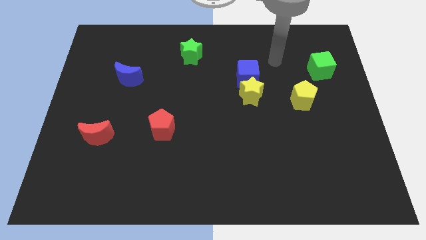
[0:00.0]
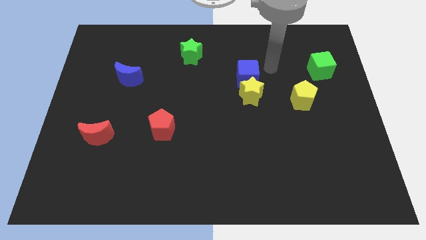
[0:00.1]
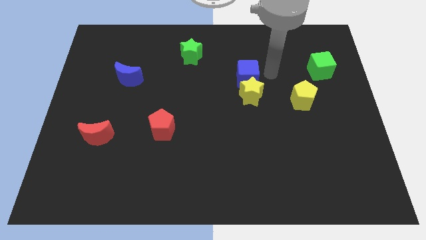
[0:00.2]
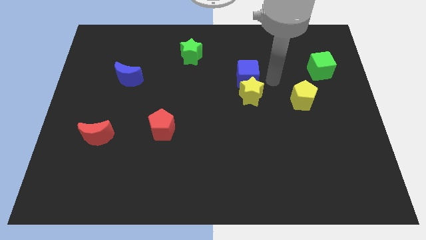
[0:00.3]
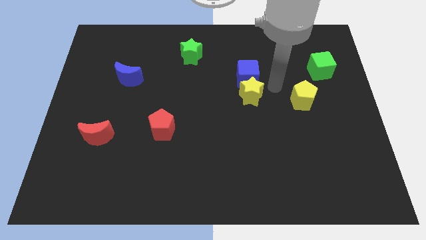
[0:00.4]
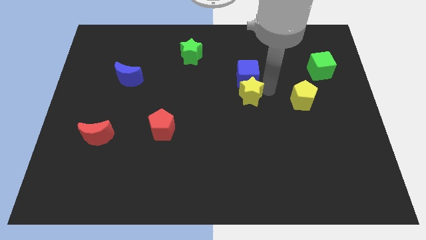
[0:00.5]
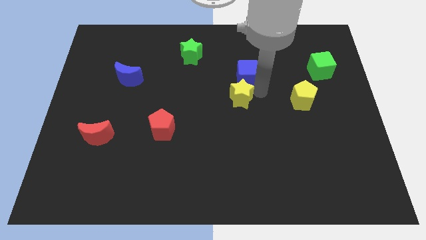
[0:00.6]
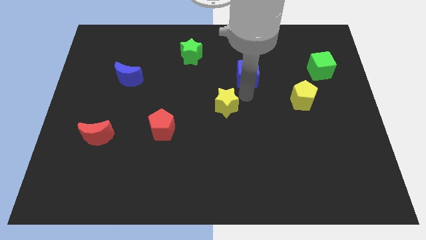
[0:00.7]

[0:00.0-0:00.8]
move the blue cube away from the yellow star

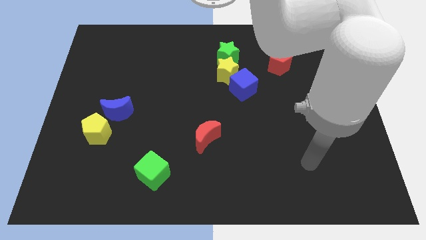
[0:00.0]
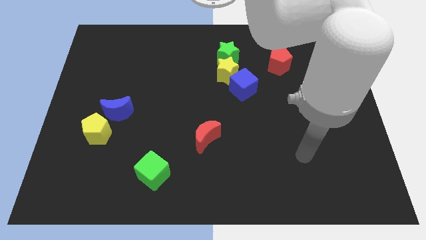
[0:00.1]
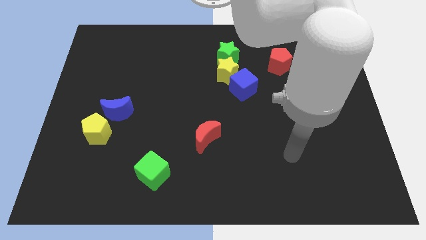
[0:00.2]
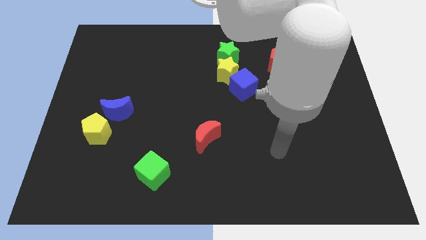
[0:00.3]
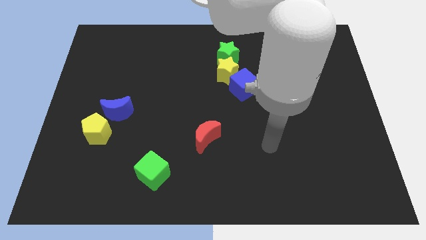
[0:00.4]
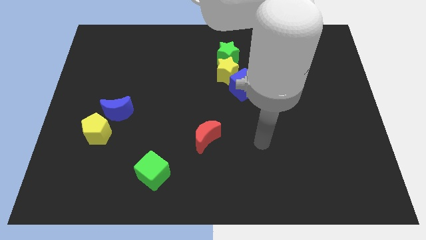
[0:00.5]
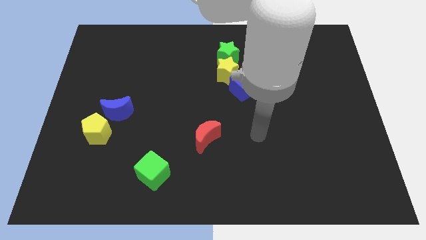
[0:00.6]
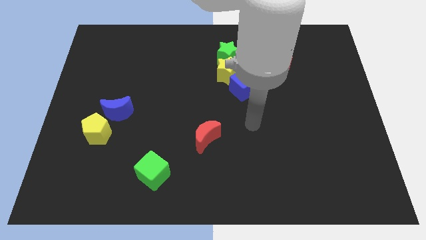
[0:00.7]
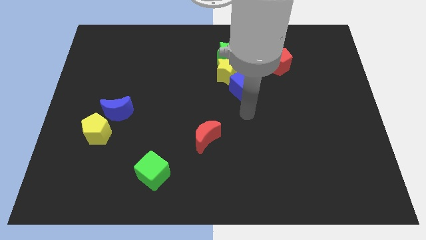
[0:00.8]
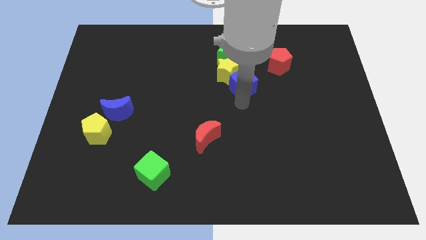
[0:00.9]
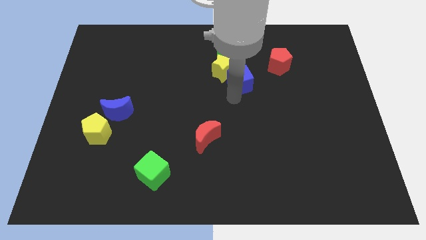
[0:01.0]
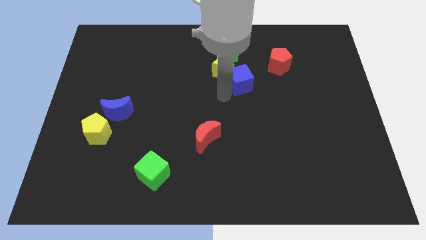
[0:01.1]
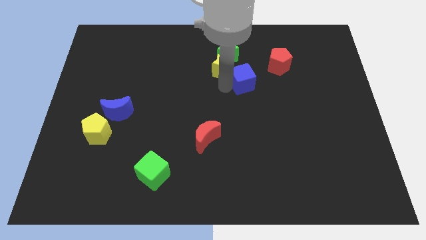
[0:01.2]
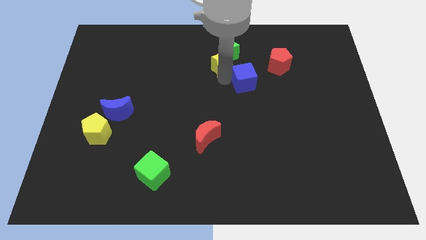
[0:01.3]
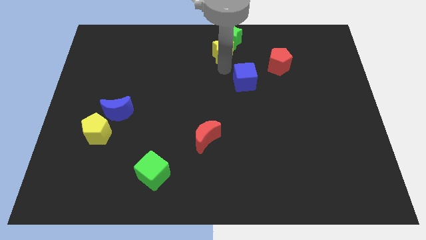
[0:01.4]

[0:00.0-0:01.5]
separate the blue cube from the yellow star

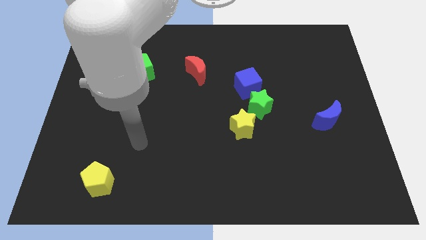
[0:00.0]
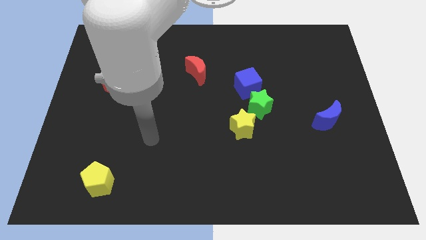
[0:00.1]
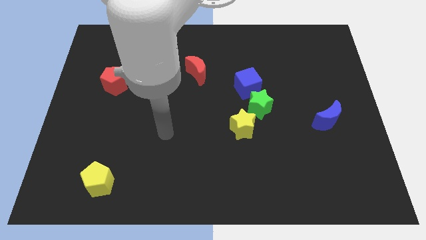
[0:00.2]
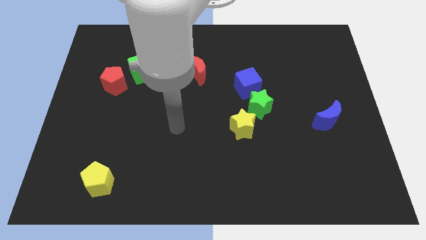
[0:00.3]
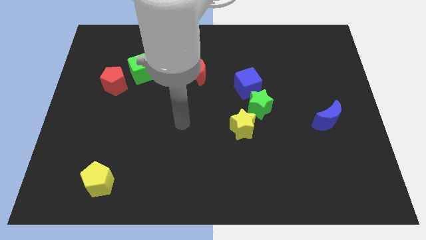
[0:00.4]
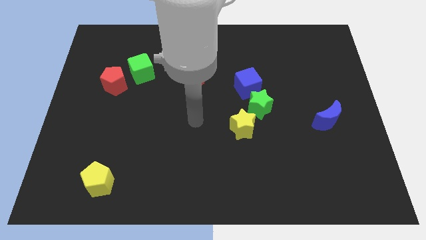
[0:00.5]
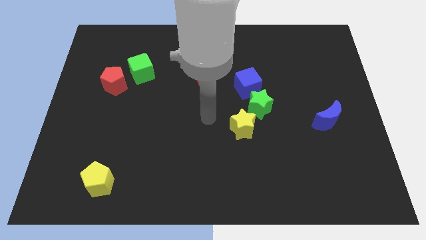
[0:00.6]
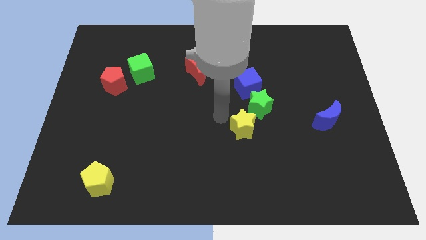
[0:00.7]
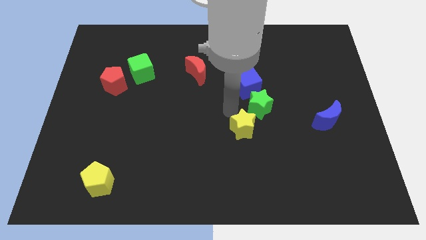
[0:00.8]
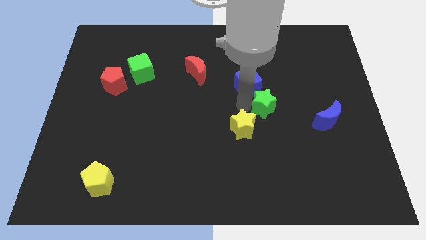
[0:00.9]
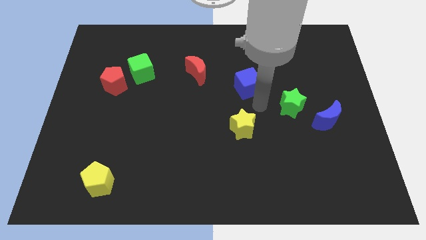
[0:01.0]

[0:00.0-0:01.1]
separate the blue cube from the green star

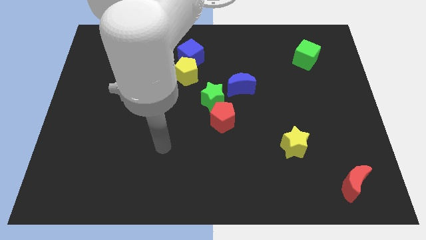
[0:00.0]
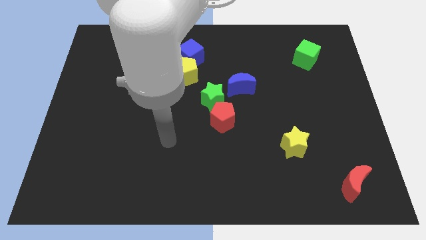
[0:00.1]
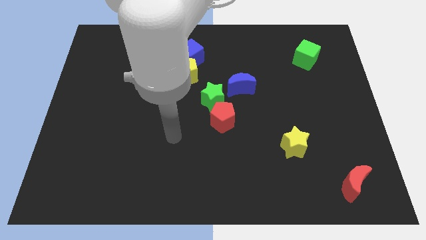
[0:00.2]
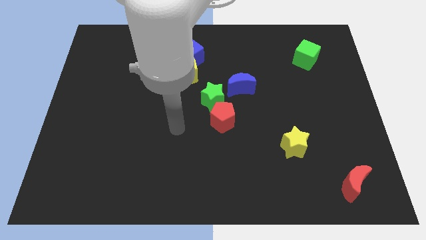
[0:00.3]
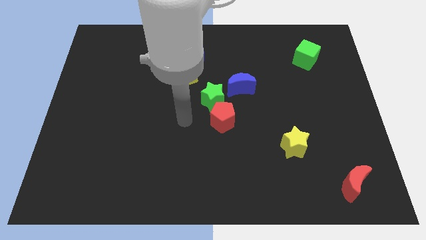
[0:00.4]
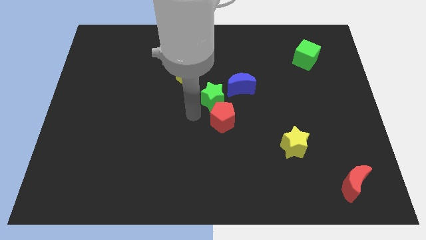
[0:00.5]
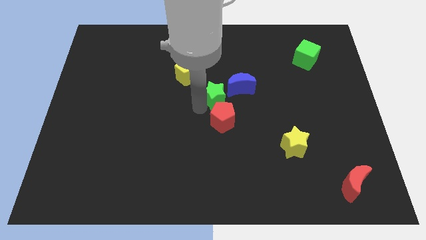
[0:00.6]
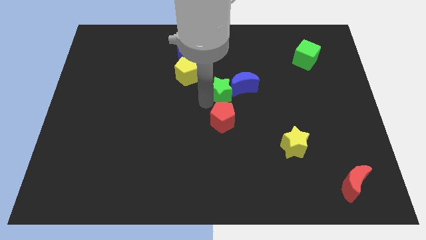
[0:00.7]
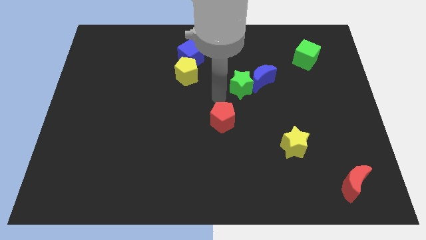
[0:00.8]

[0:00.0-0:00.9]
separate the red pentagon from the green star

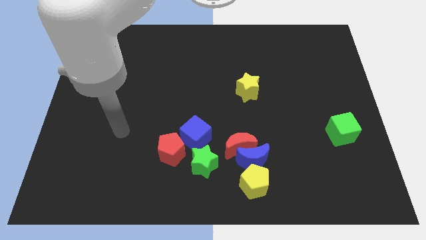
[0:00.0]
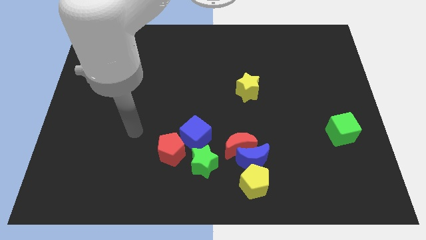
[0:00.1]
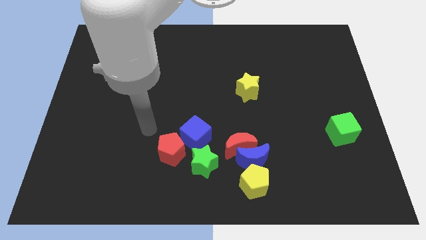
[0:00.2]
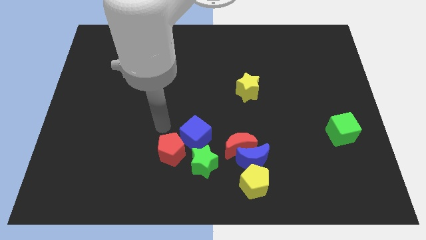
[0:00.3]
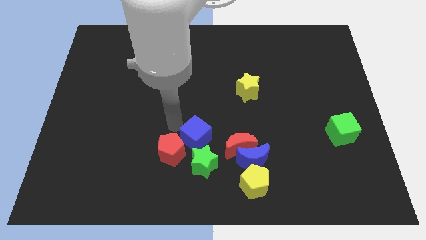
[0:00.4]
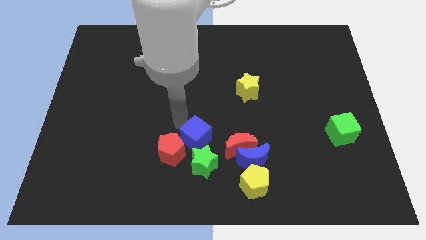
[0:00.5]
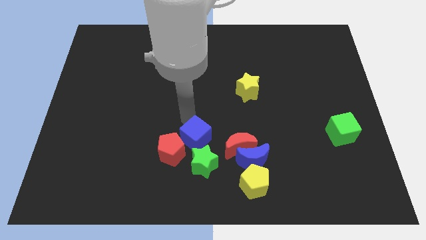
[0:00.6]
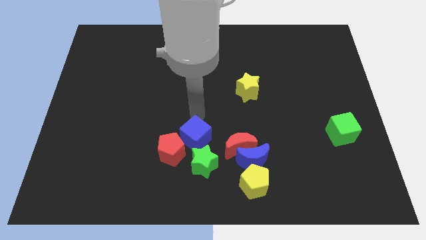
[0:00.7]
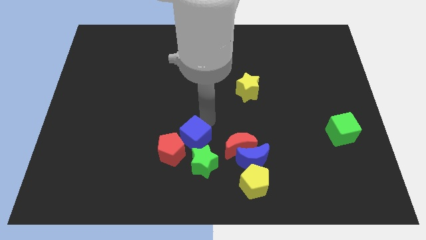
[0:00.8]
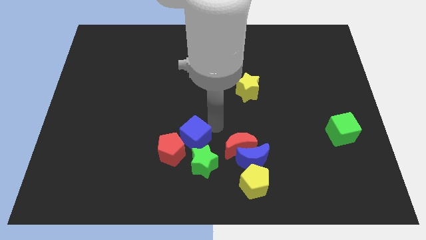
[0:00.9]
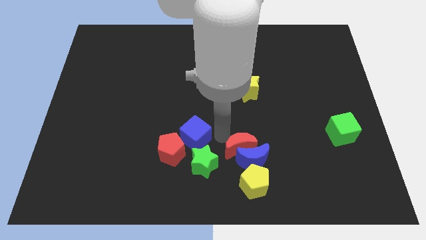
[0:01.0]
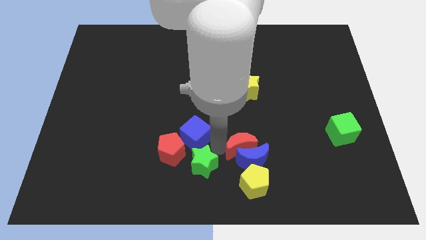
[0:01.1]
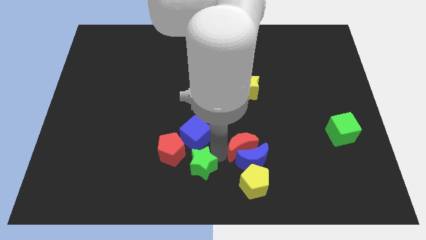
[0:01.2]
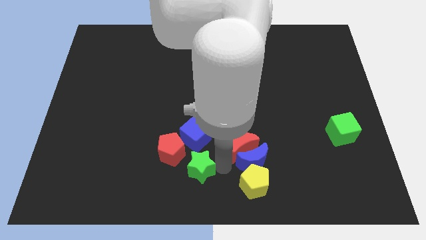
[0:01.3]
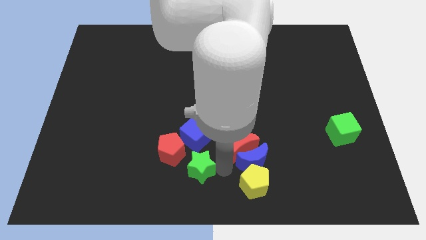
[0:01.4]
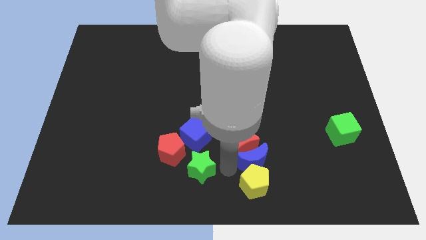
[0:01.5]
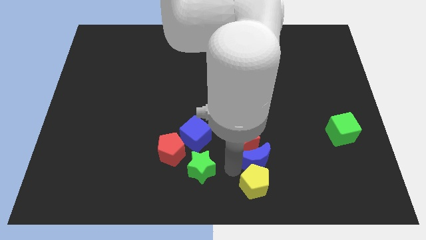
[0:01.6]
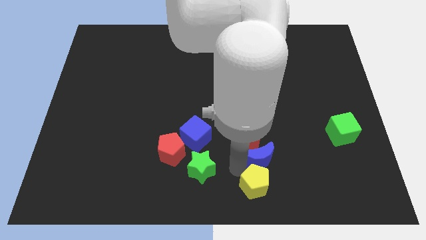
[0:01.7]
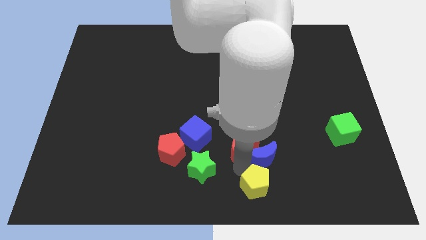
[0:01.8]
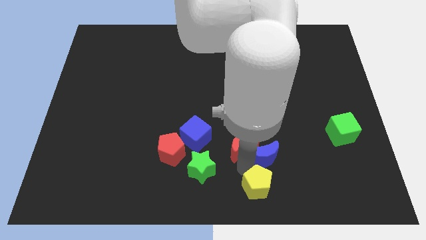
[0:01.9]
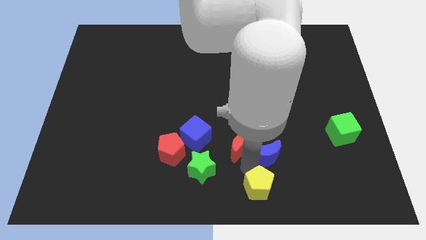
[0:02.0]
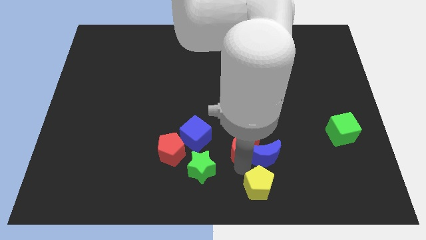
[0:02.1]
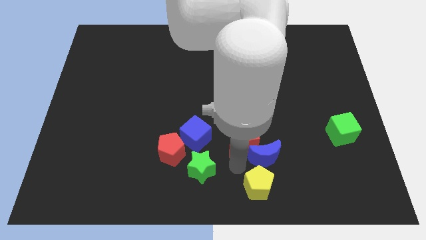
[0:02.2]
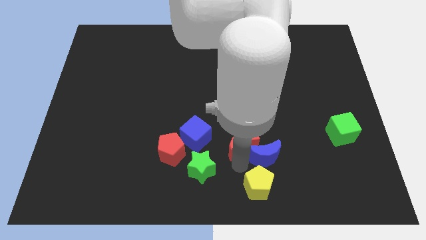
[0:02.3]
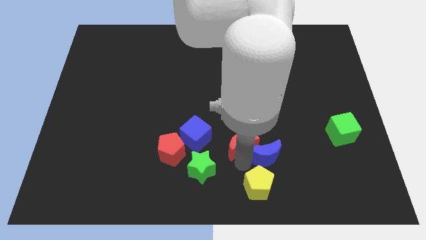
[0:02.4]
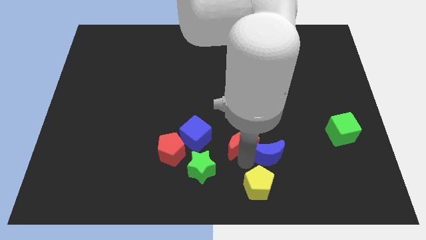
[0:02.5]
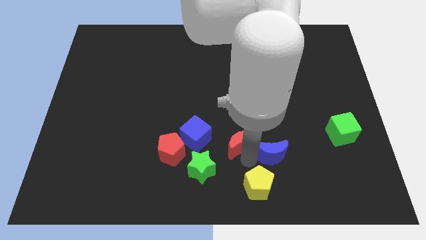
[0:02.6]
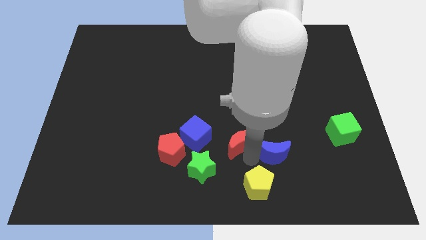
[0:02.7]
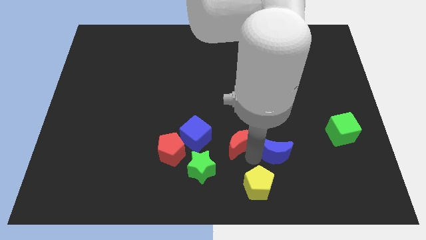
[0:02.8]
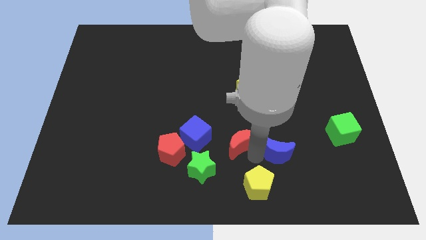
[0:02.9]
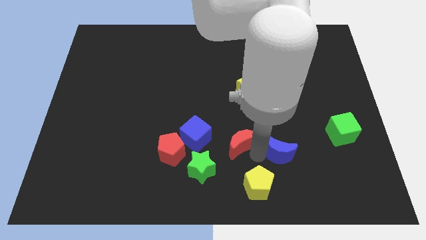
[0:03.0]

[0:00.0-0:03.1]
separate the blue moon from the group

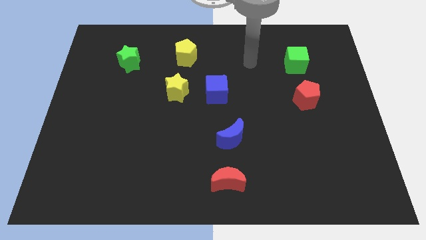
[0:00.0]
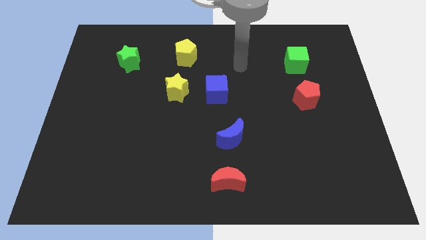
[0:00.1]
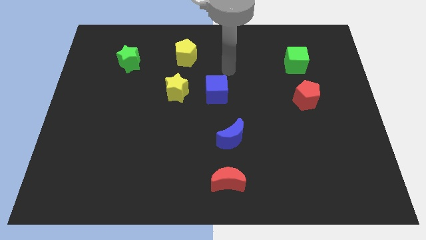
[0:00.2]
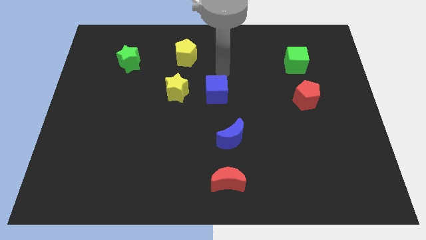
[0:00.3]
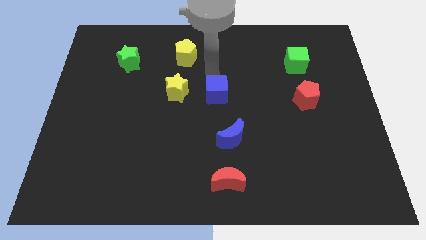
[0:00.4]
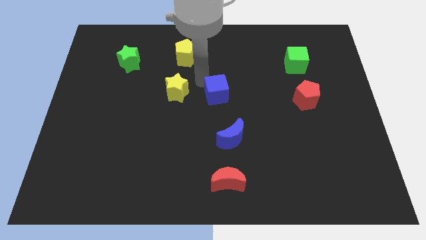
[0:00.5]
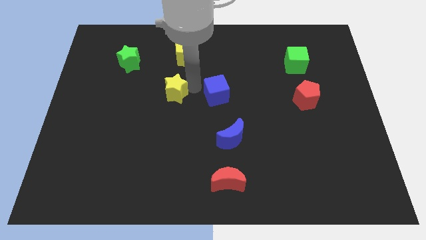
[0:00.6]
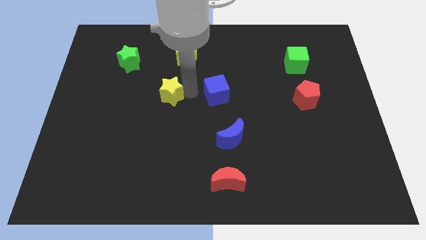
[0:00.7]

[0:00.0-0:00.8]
pull the blue cube apart from the yellow star

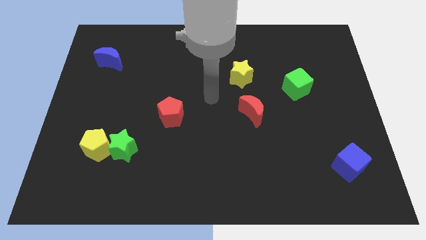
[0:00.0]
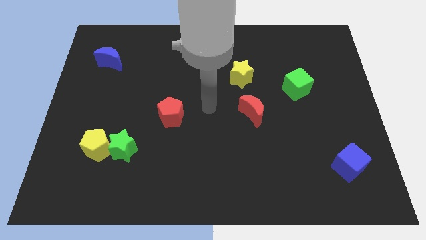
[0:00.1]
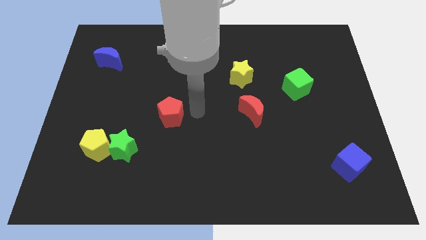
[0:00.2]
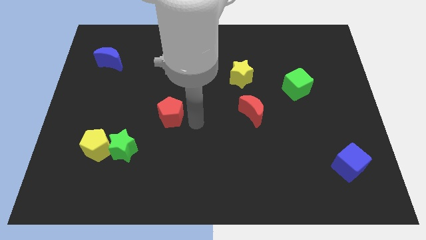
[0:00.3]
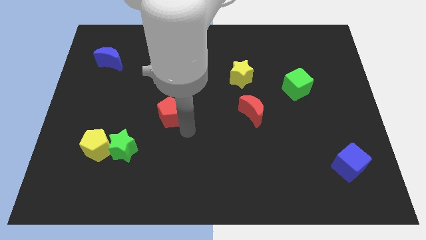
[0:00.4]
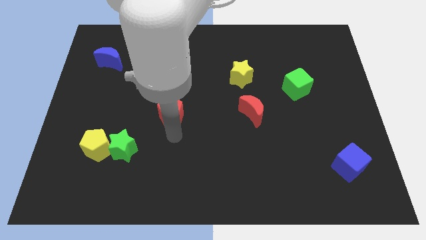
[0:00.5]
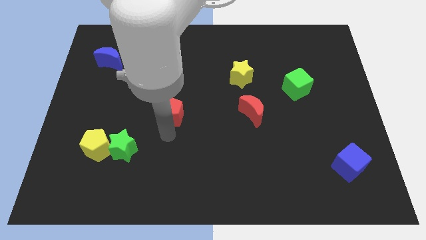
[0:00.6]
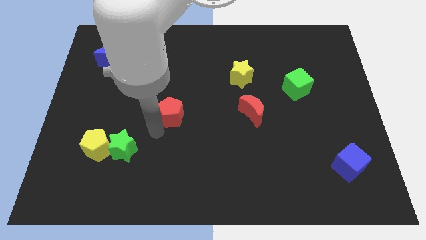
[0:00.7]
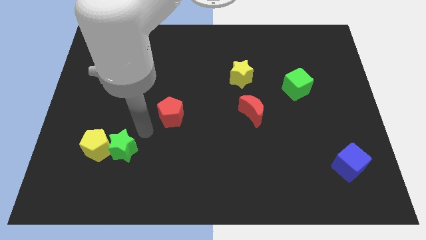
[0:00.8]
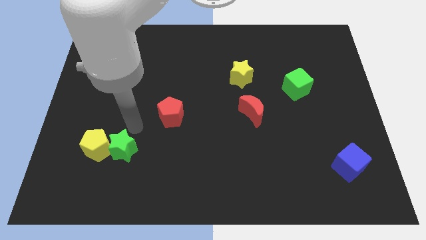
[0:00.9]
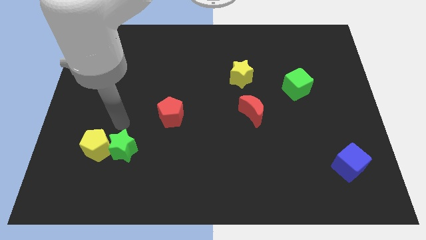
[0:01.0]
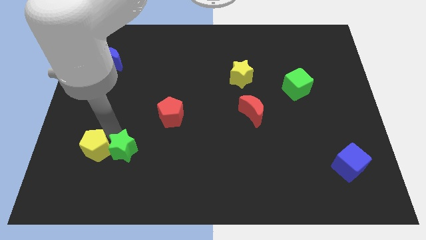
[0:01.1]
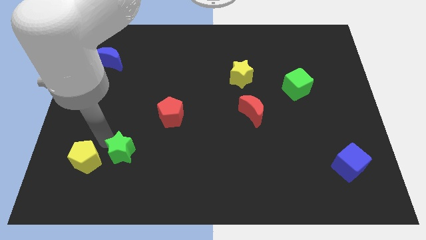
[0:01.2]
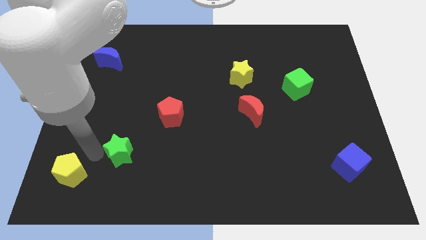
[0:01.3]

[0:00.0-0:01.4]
move the green star away from the yellow pentagon
